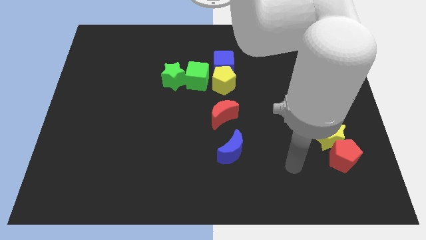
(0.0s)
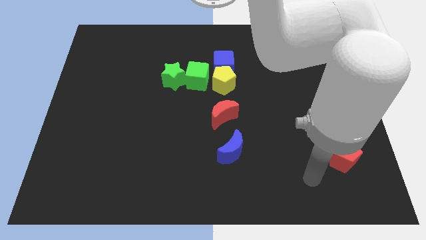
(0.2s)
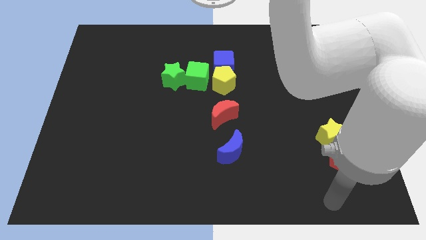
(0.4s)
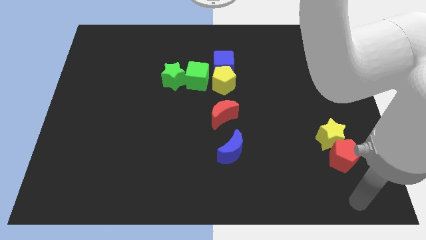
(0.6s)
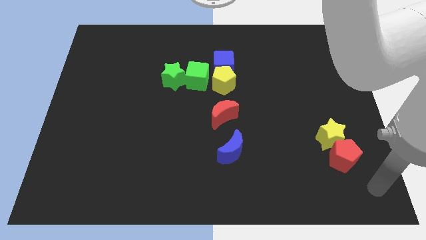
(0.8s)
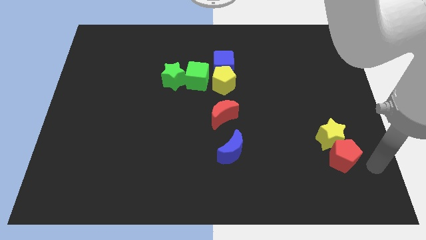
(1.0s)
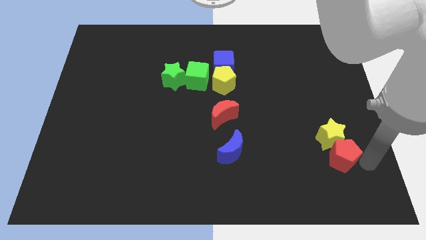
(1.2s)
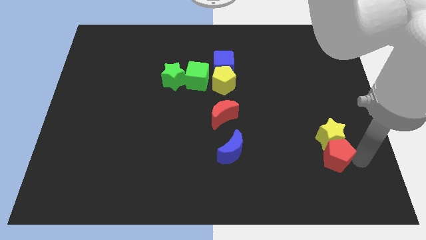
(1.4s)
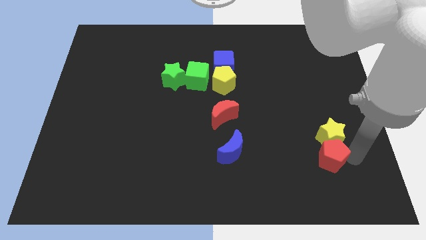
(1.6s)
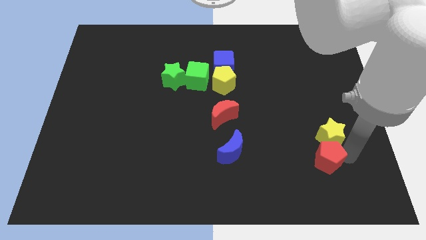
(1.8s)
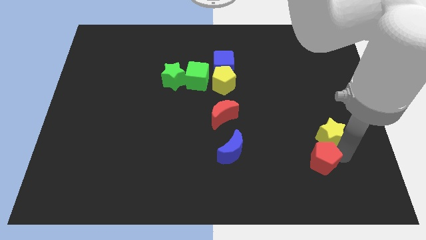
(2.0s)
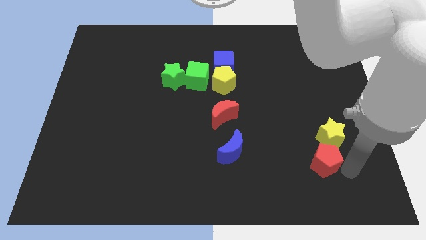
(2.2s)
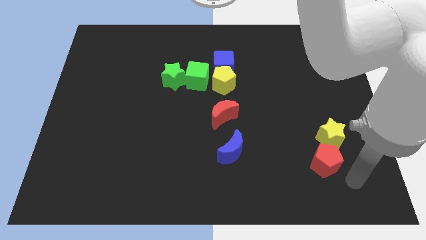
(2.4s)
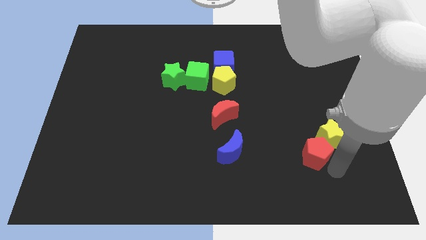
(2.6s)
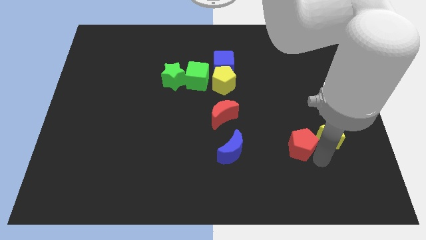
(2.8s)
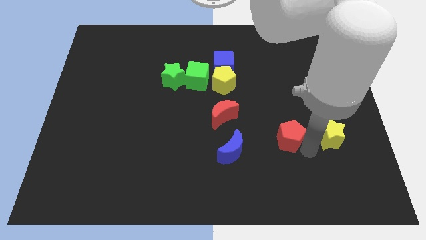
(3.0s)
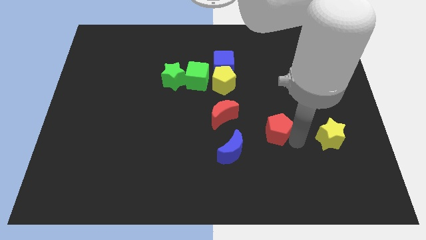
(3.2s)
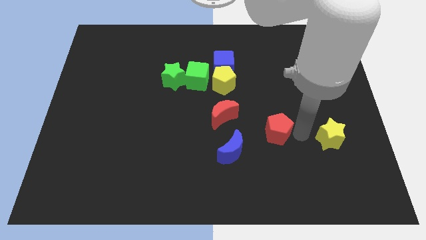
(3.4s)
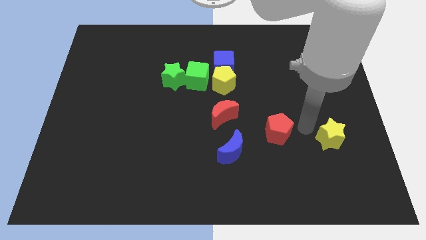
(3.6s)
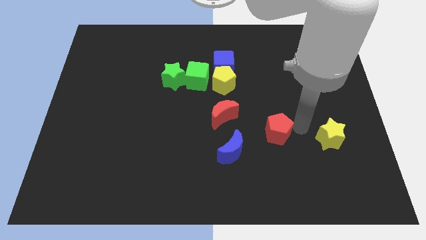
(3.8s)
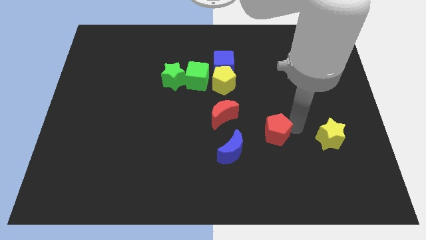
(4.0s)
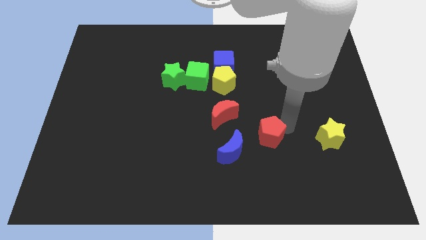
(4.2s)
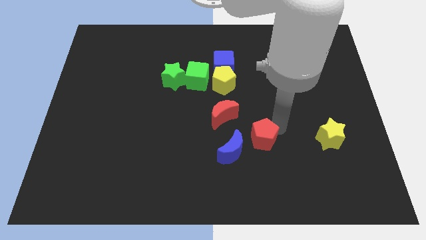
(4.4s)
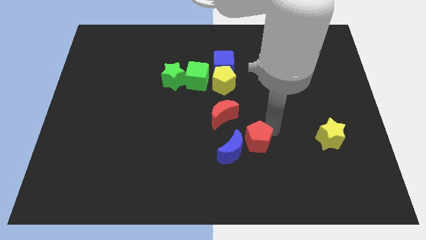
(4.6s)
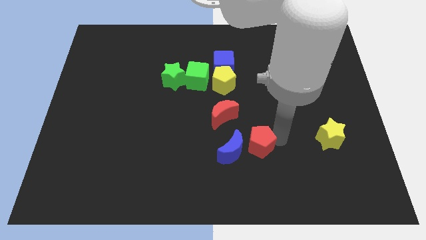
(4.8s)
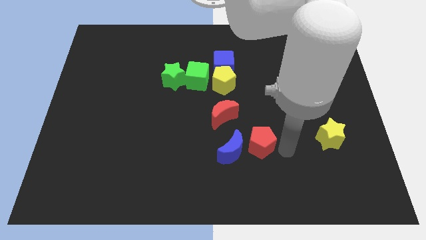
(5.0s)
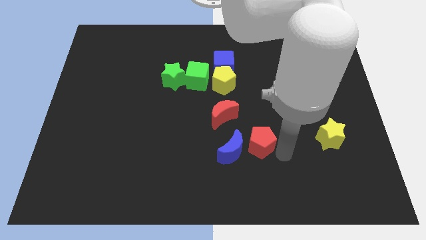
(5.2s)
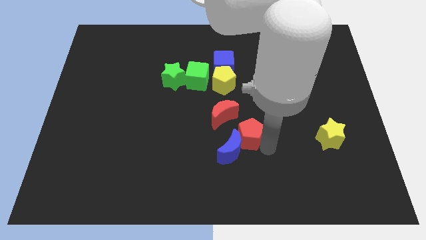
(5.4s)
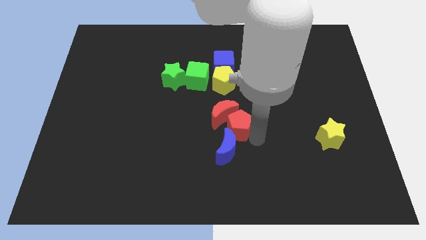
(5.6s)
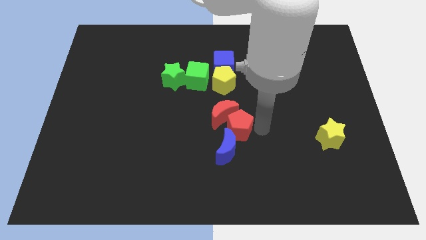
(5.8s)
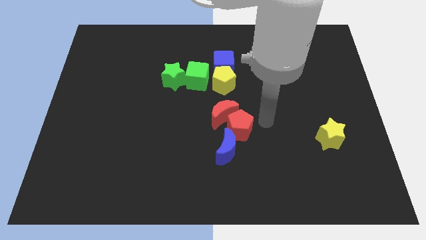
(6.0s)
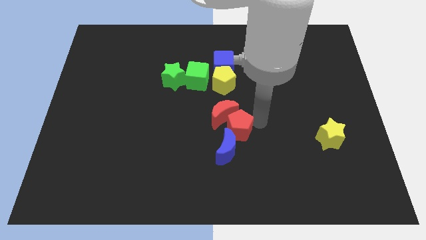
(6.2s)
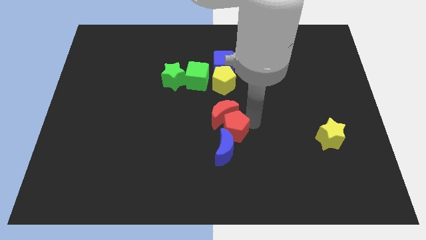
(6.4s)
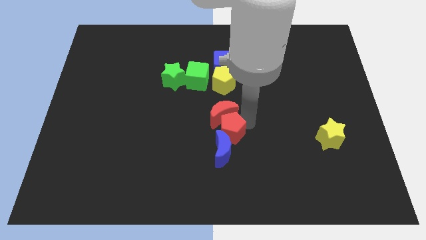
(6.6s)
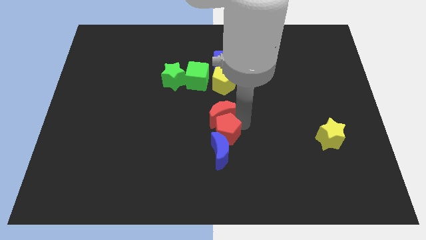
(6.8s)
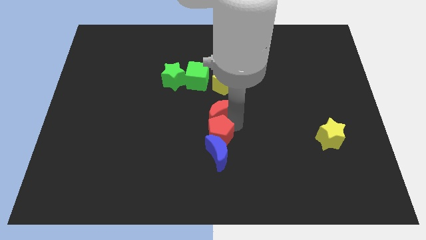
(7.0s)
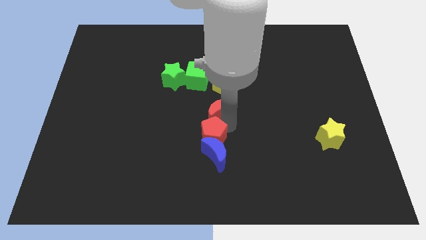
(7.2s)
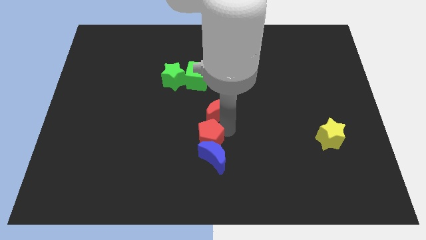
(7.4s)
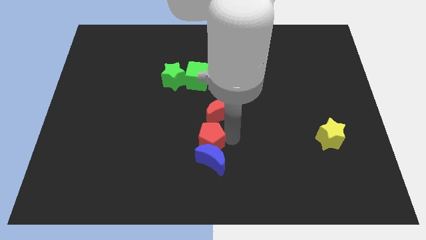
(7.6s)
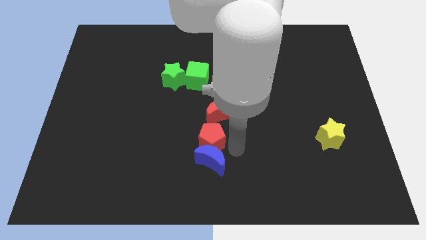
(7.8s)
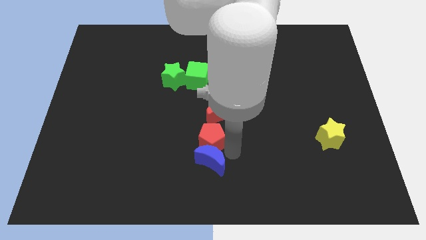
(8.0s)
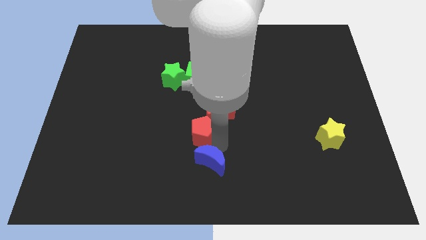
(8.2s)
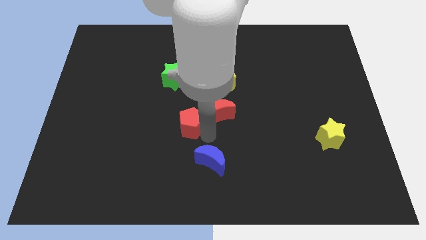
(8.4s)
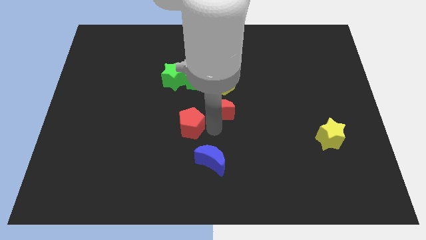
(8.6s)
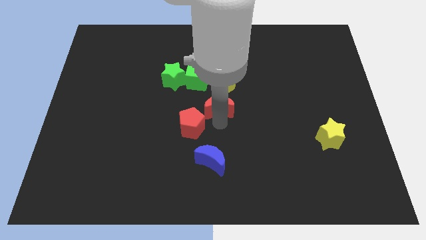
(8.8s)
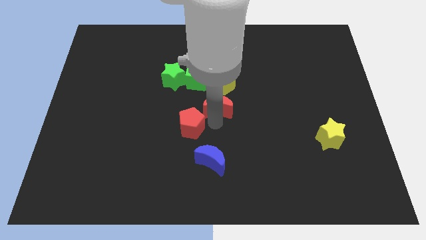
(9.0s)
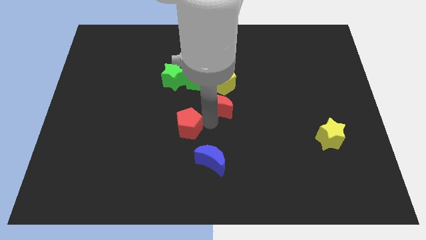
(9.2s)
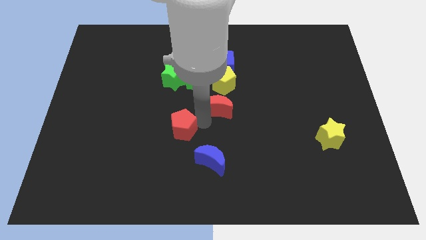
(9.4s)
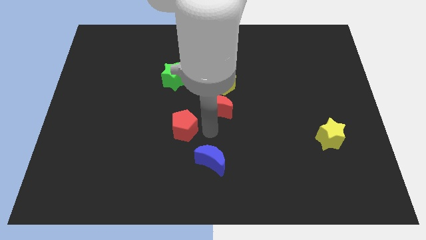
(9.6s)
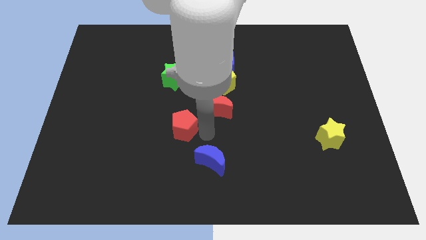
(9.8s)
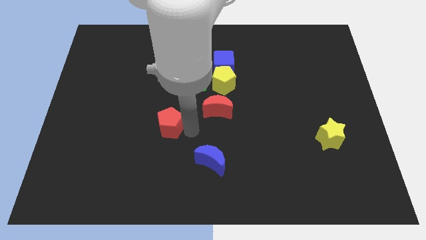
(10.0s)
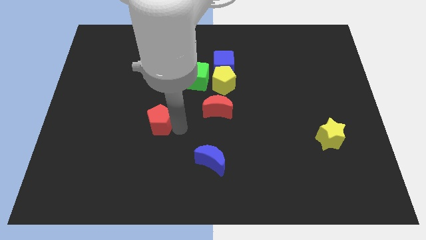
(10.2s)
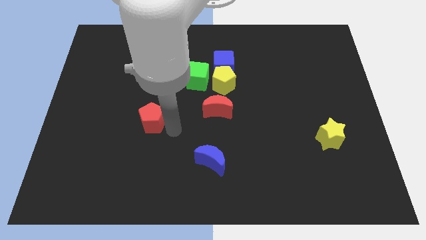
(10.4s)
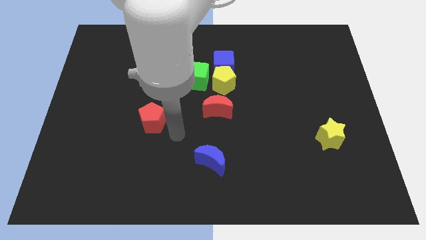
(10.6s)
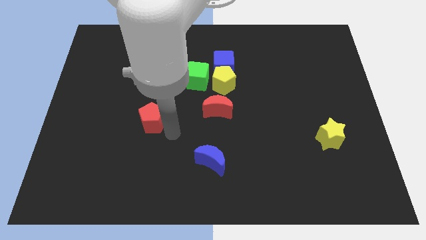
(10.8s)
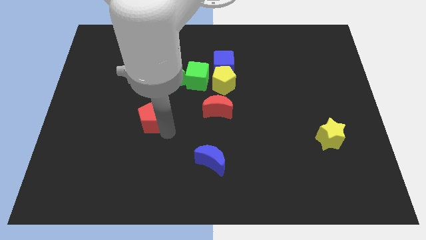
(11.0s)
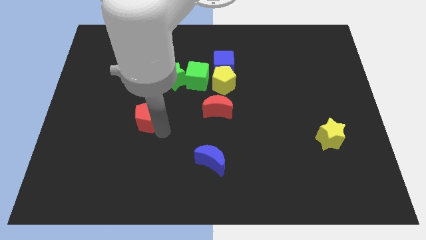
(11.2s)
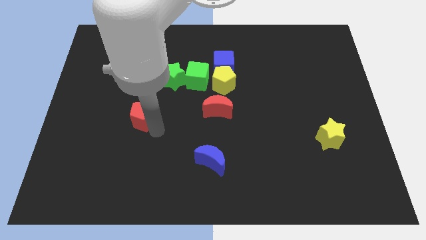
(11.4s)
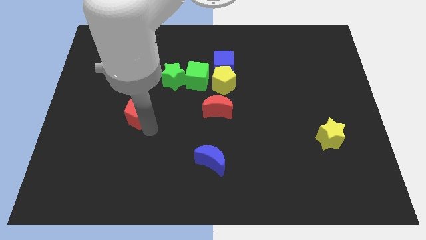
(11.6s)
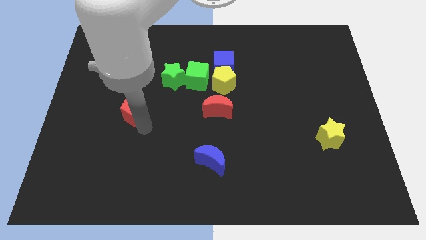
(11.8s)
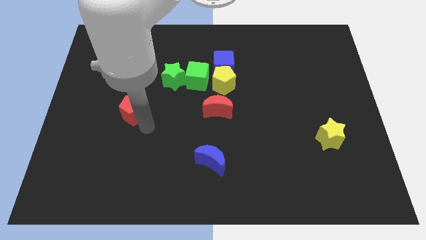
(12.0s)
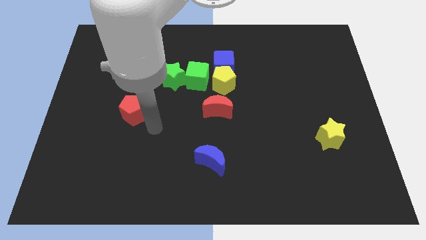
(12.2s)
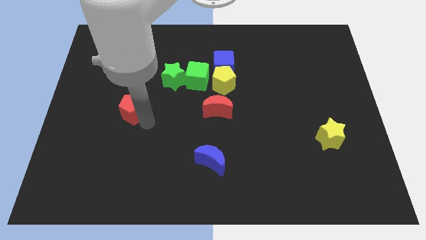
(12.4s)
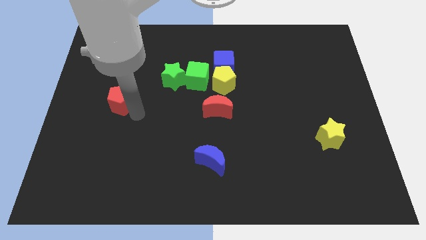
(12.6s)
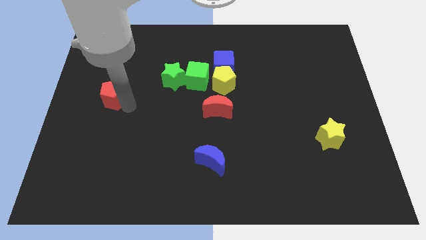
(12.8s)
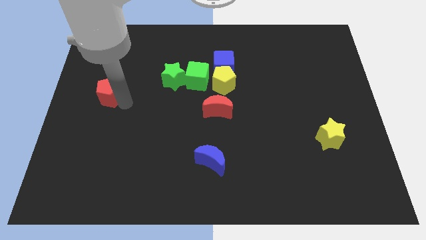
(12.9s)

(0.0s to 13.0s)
slide the red pentagon to the left side

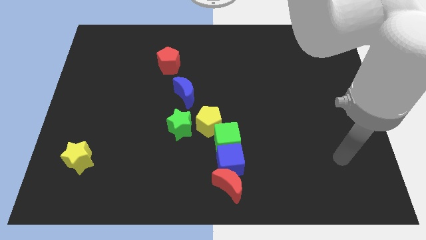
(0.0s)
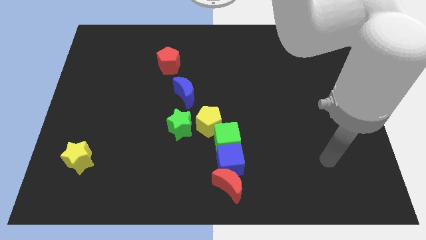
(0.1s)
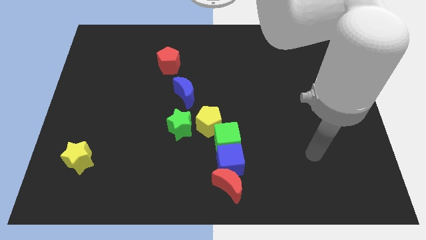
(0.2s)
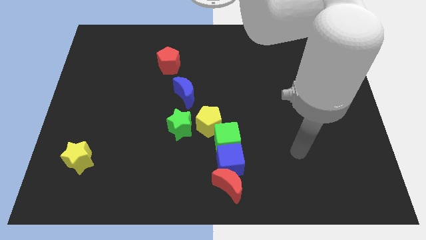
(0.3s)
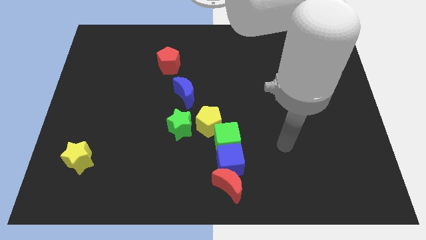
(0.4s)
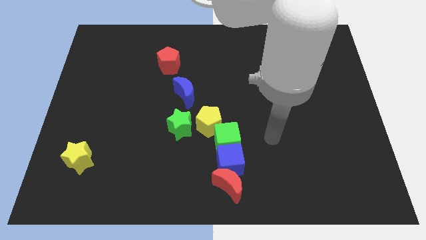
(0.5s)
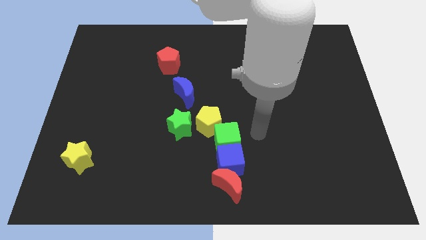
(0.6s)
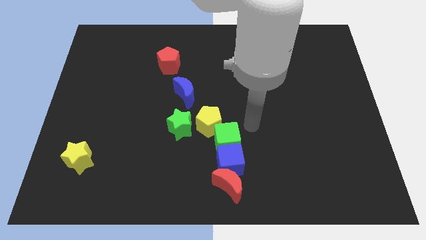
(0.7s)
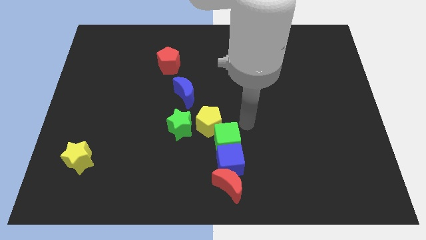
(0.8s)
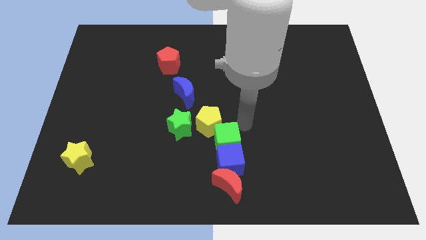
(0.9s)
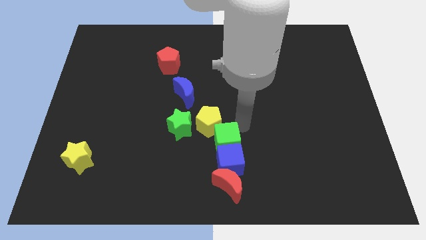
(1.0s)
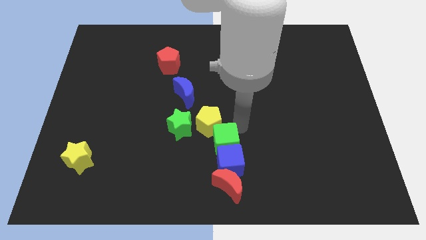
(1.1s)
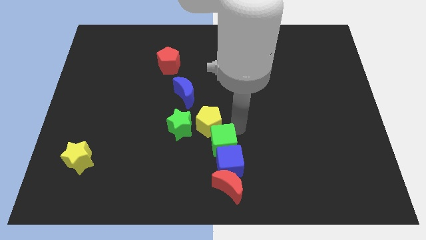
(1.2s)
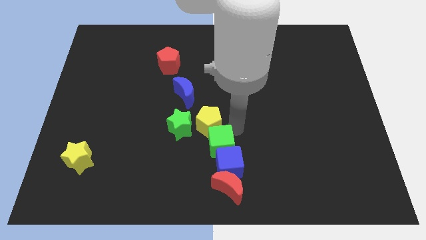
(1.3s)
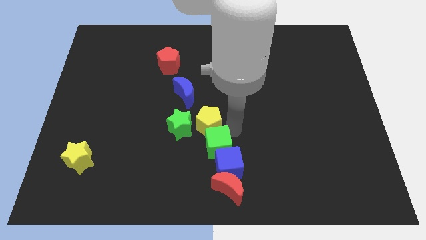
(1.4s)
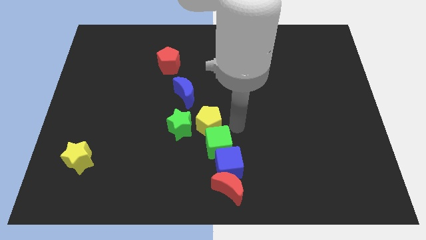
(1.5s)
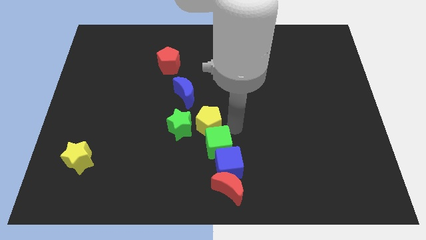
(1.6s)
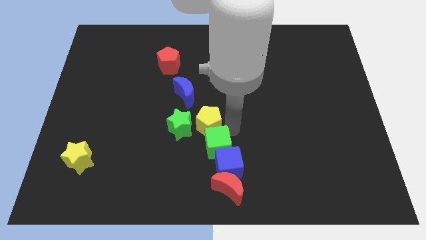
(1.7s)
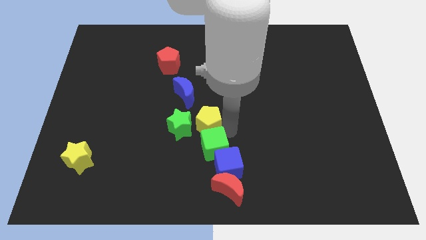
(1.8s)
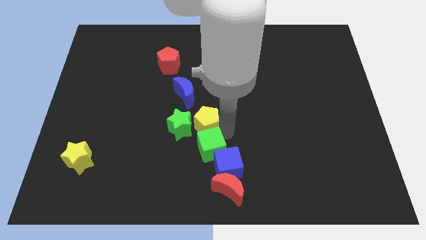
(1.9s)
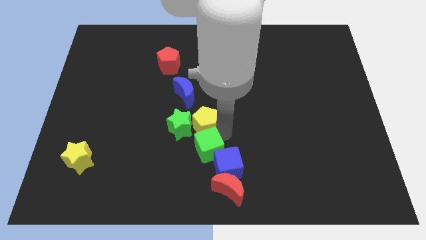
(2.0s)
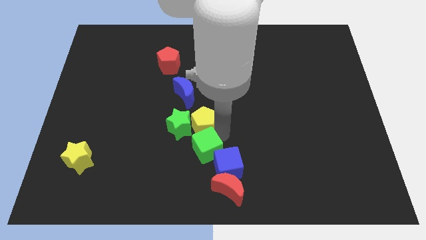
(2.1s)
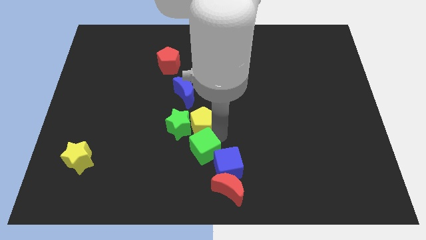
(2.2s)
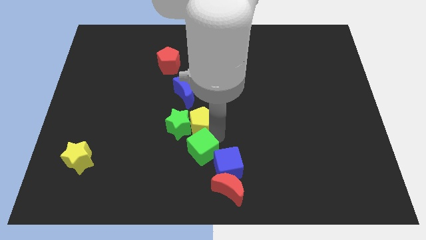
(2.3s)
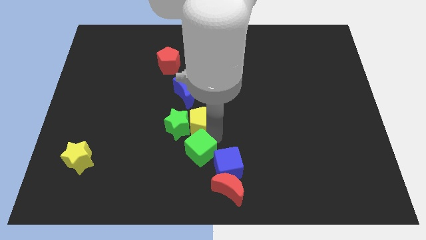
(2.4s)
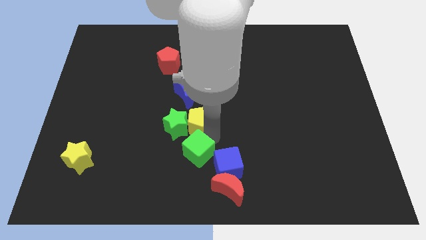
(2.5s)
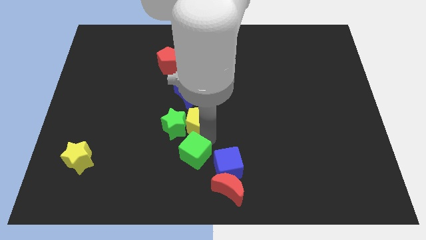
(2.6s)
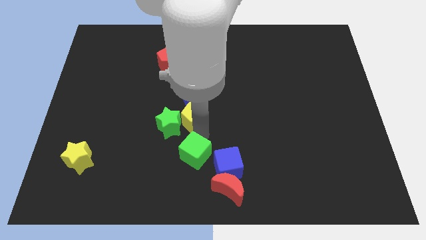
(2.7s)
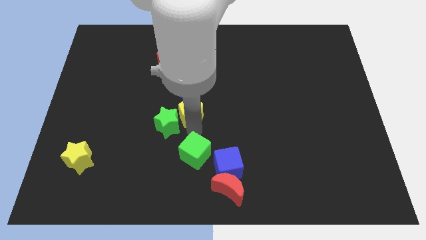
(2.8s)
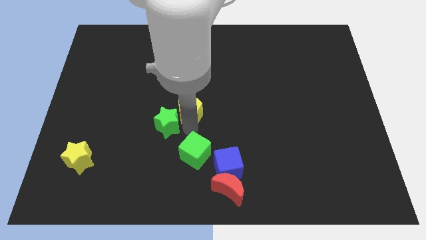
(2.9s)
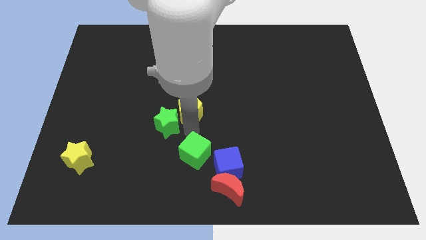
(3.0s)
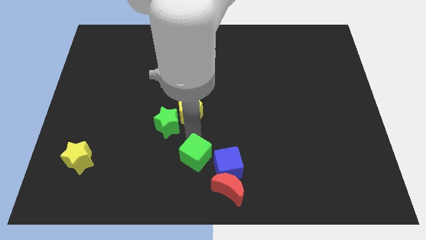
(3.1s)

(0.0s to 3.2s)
slide the green cube to the bottom side
